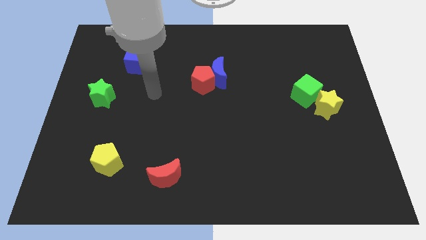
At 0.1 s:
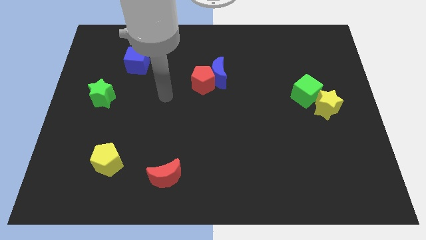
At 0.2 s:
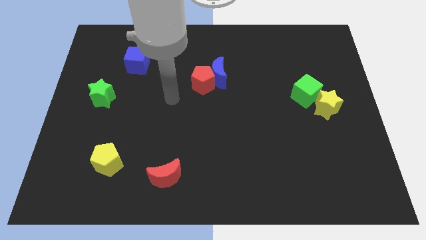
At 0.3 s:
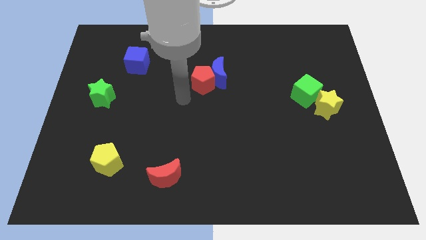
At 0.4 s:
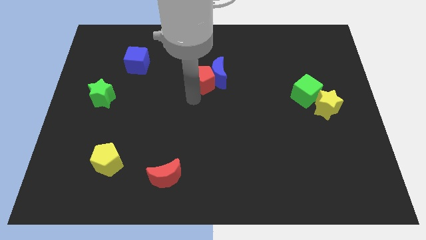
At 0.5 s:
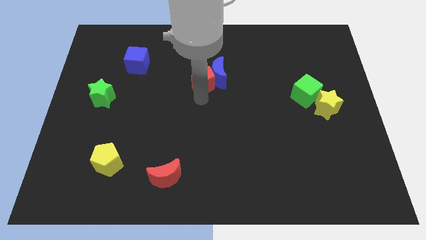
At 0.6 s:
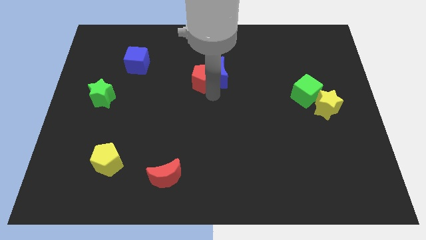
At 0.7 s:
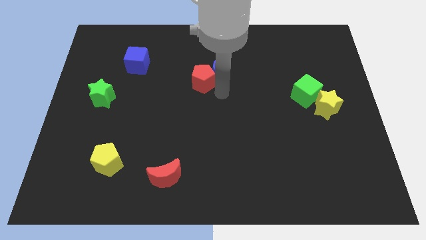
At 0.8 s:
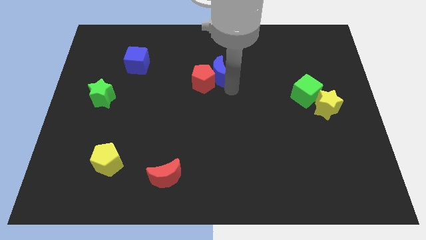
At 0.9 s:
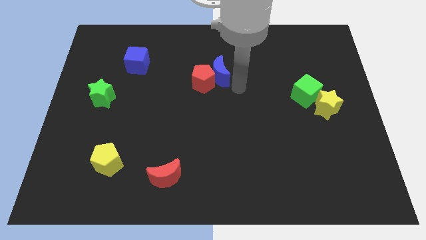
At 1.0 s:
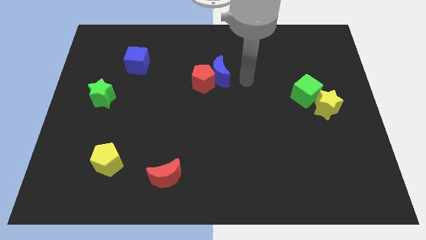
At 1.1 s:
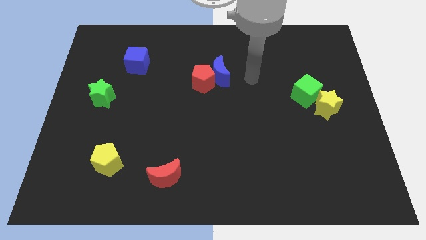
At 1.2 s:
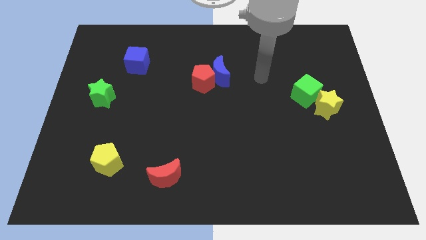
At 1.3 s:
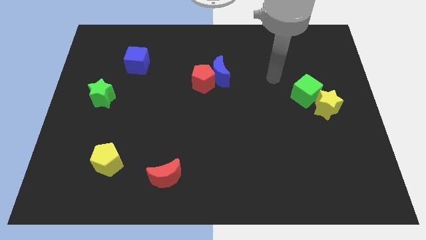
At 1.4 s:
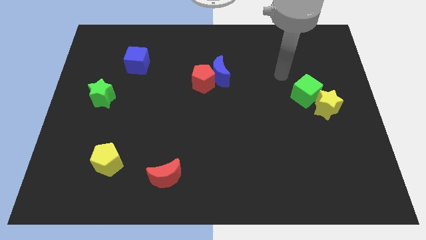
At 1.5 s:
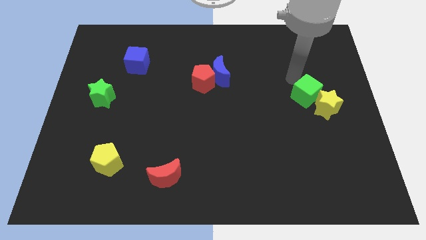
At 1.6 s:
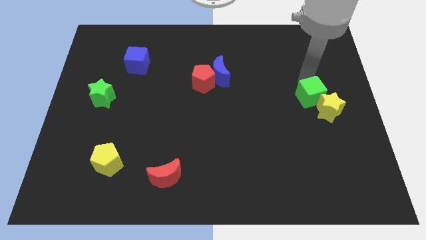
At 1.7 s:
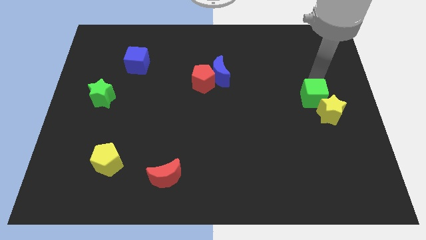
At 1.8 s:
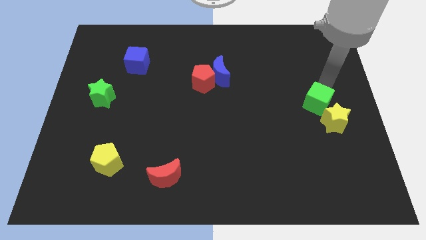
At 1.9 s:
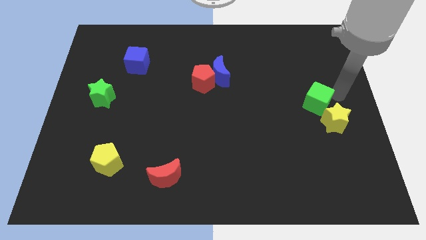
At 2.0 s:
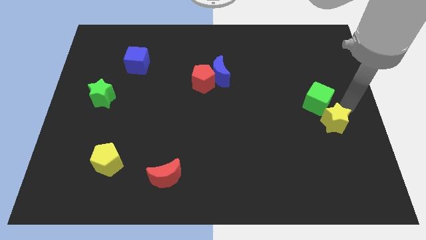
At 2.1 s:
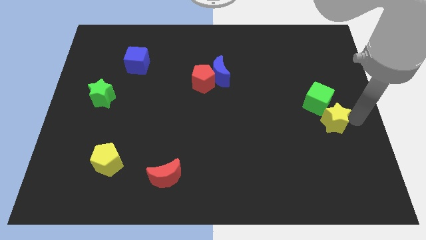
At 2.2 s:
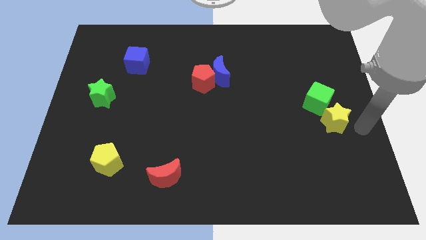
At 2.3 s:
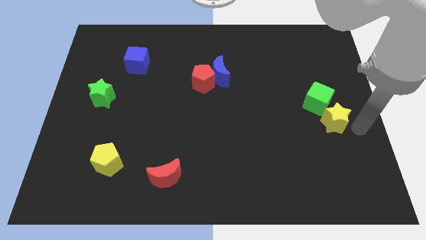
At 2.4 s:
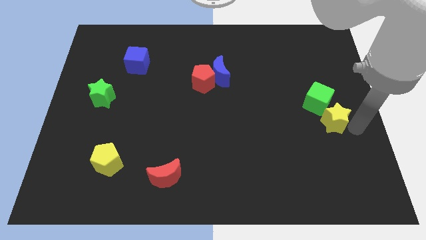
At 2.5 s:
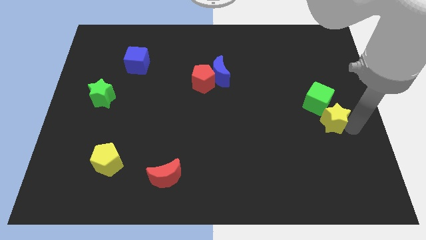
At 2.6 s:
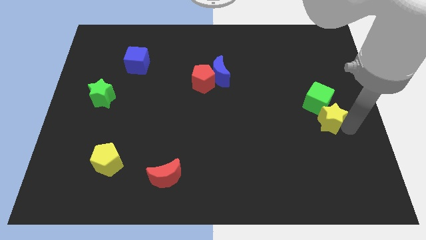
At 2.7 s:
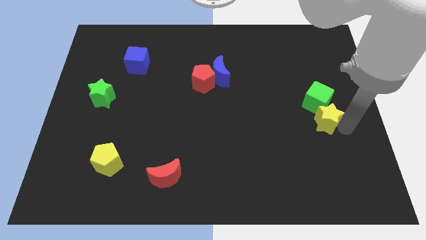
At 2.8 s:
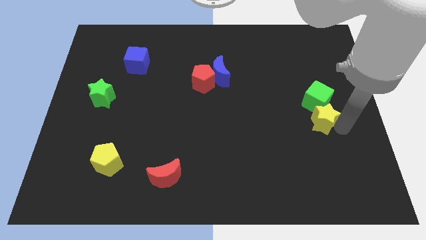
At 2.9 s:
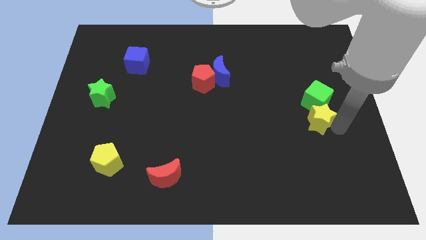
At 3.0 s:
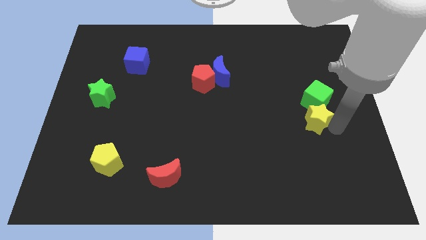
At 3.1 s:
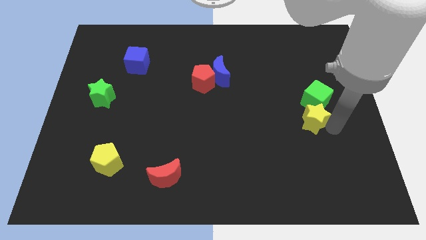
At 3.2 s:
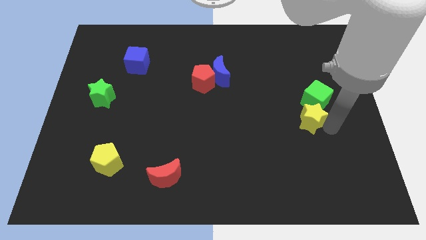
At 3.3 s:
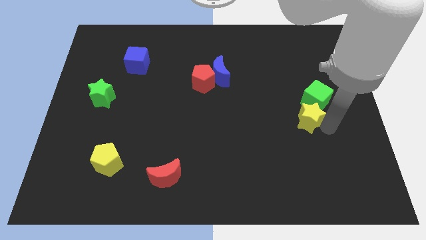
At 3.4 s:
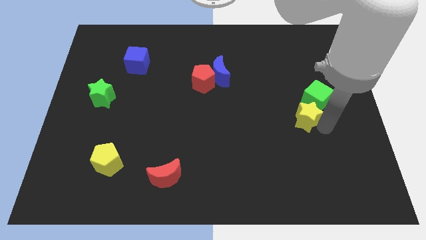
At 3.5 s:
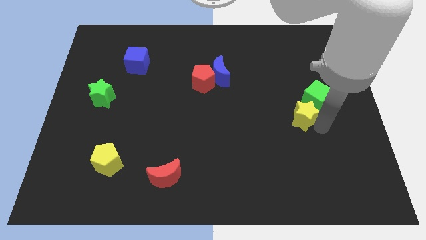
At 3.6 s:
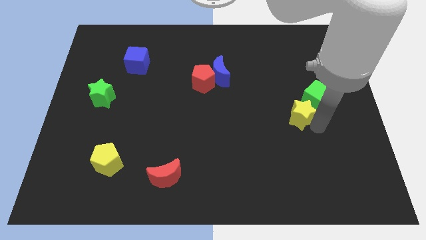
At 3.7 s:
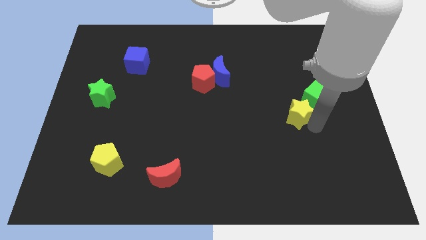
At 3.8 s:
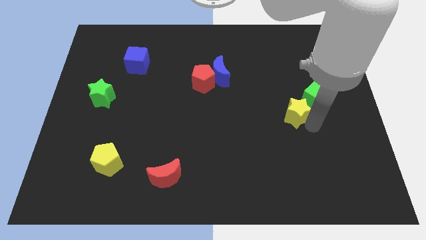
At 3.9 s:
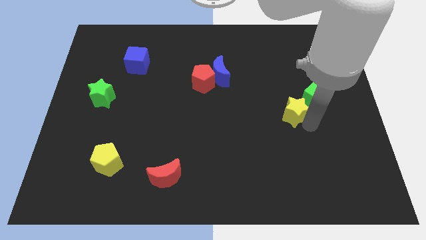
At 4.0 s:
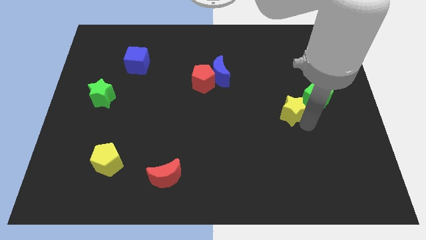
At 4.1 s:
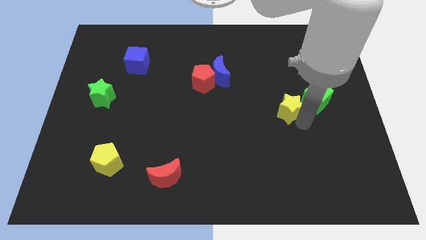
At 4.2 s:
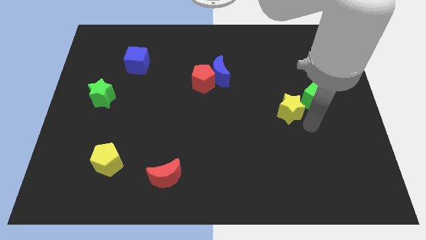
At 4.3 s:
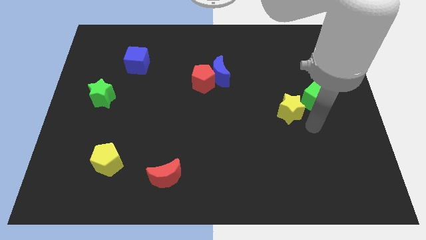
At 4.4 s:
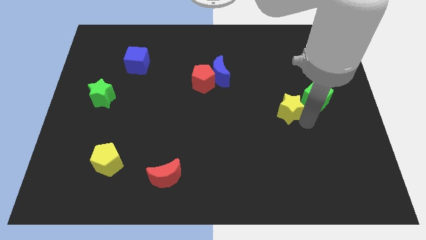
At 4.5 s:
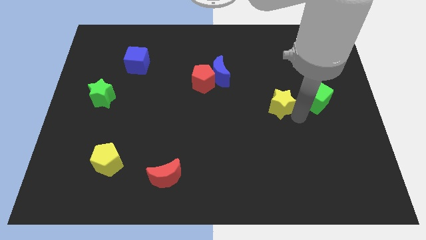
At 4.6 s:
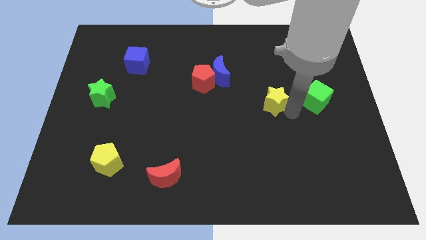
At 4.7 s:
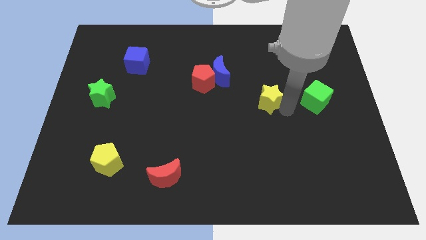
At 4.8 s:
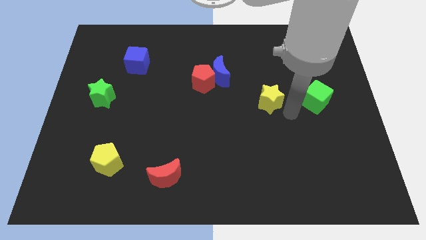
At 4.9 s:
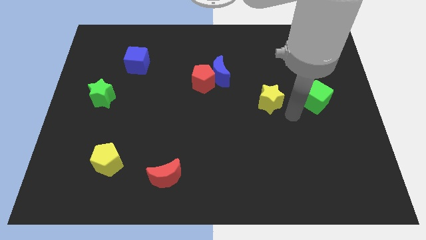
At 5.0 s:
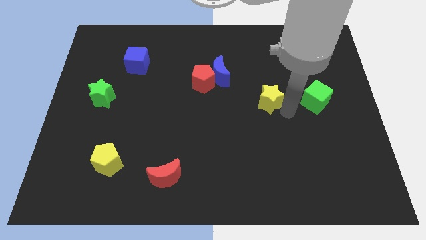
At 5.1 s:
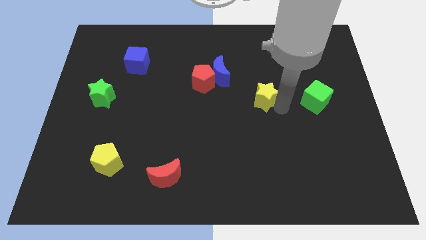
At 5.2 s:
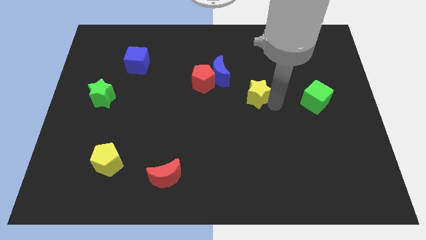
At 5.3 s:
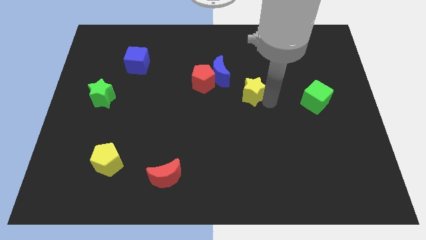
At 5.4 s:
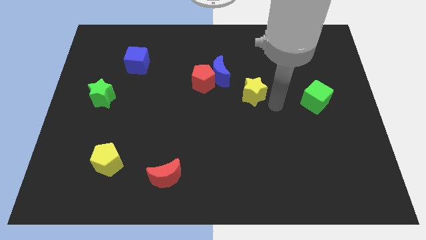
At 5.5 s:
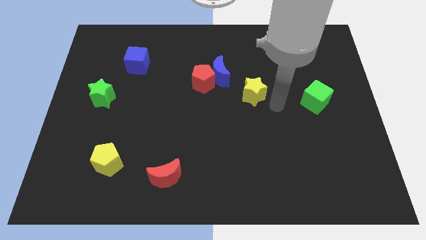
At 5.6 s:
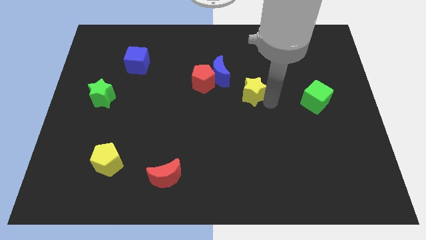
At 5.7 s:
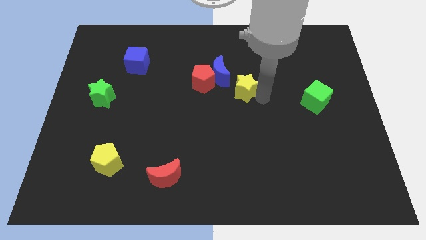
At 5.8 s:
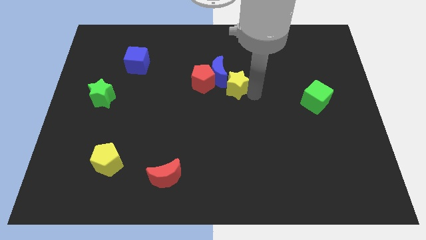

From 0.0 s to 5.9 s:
slide the yellow star close to the blue moon

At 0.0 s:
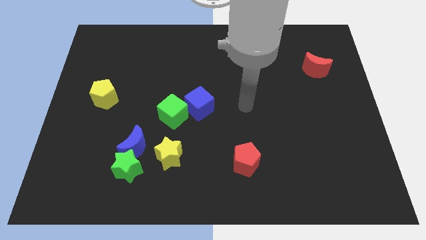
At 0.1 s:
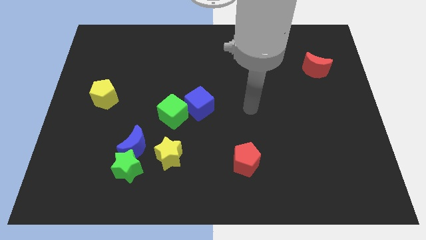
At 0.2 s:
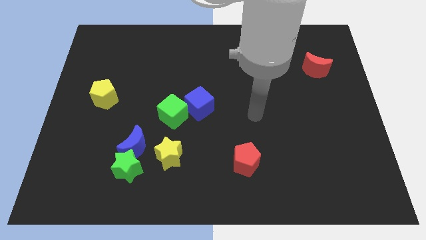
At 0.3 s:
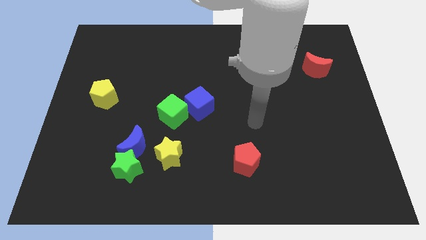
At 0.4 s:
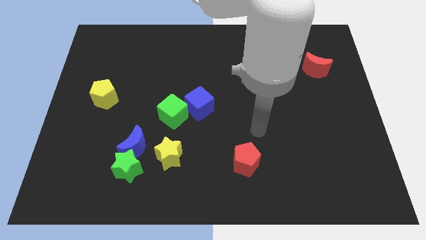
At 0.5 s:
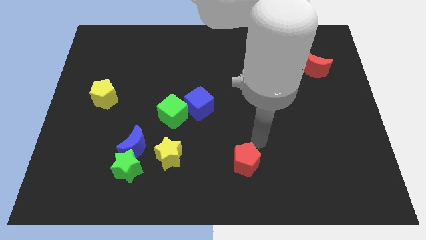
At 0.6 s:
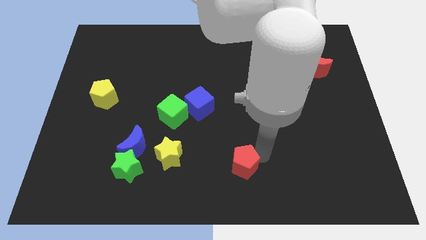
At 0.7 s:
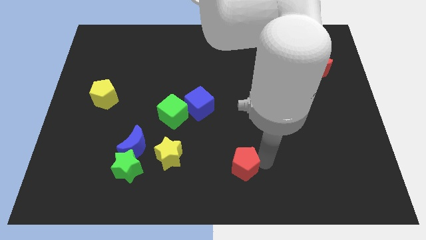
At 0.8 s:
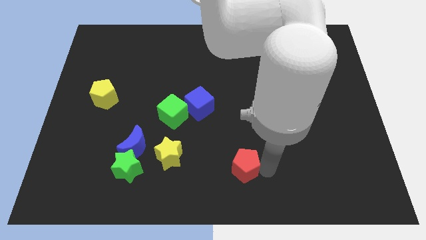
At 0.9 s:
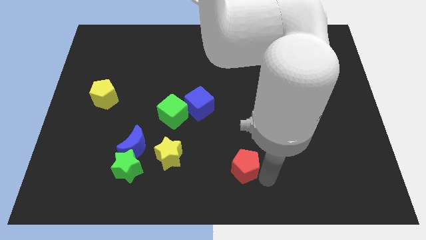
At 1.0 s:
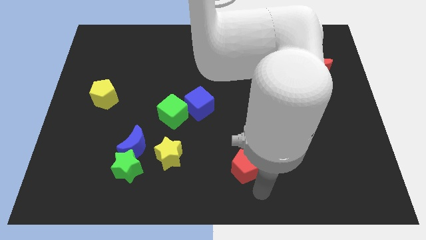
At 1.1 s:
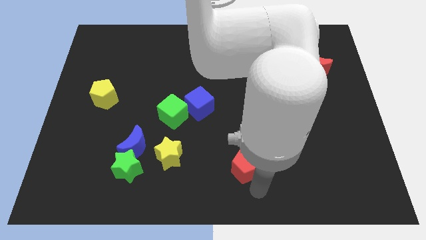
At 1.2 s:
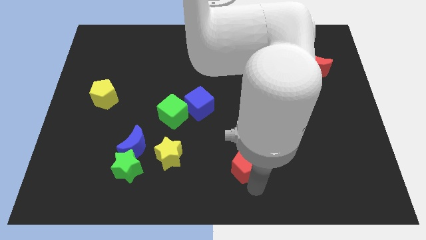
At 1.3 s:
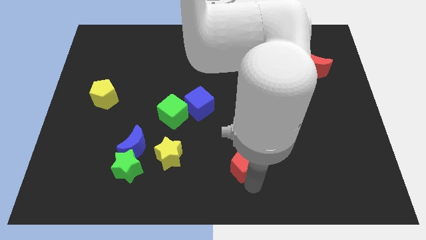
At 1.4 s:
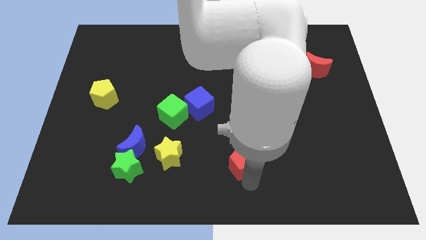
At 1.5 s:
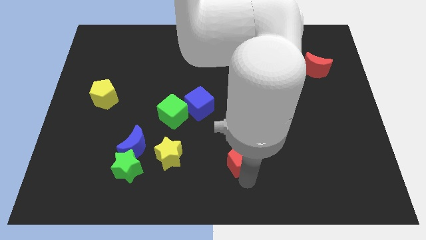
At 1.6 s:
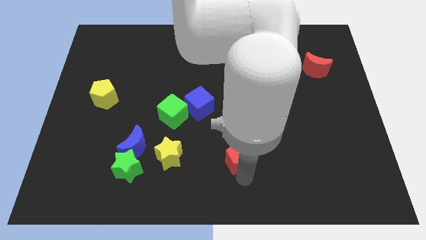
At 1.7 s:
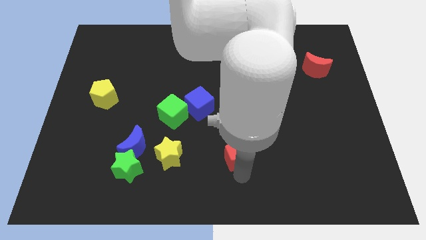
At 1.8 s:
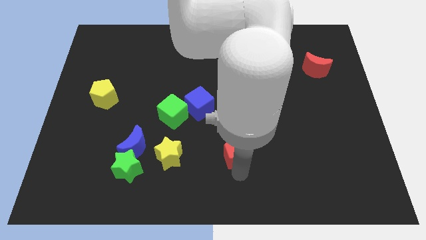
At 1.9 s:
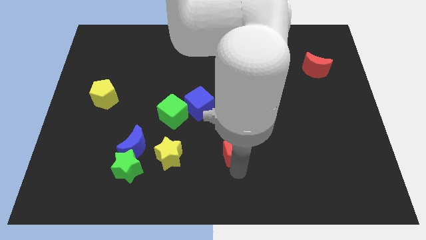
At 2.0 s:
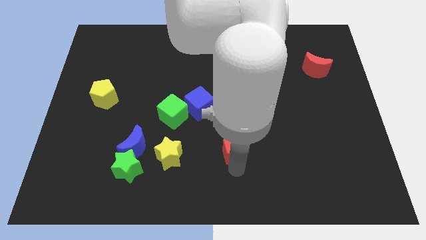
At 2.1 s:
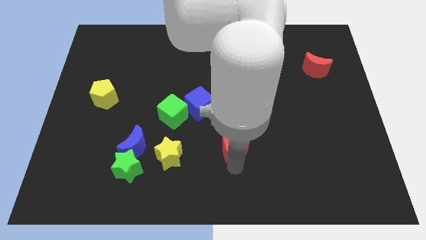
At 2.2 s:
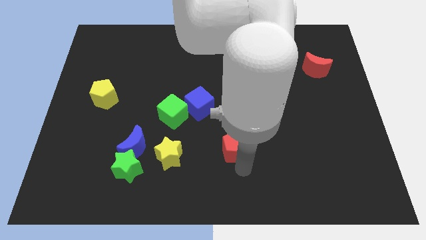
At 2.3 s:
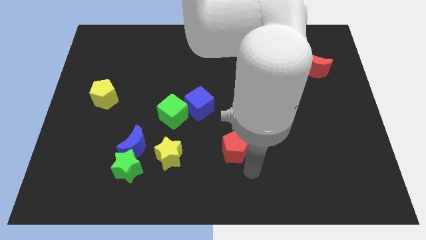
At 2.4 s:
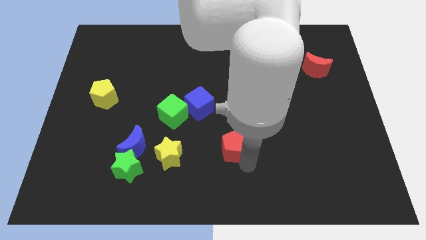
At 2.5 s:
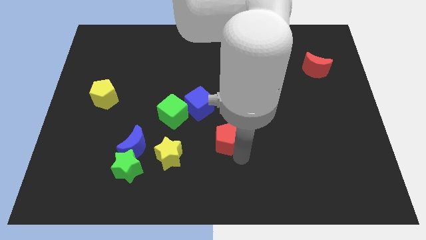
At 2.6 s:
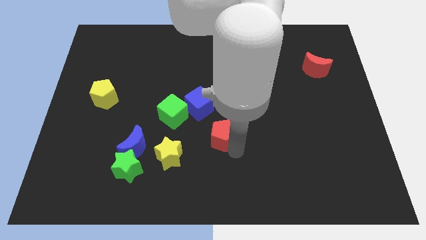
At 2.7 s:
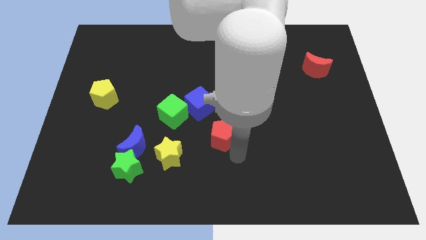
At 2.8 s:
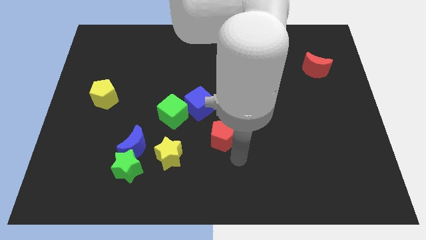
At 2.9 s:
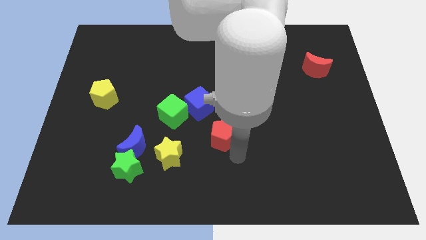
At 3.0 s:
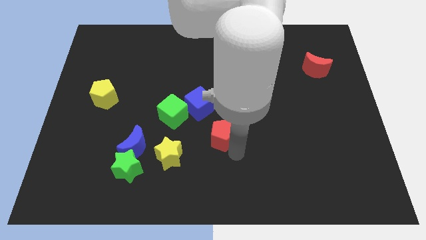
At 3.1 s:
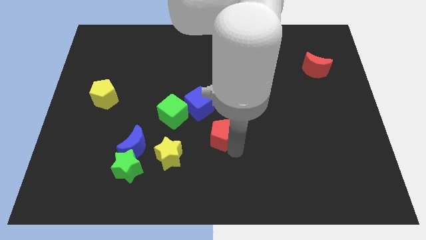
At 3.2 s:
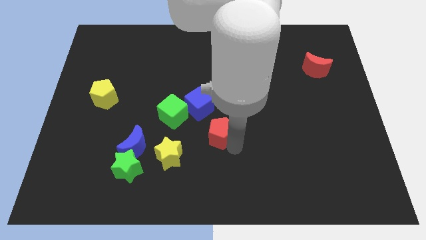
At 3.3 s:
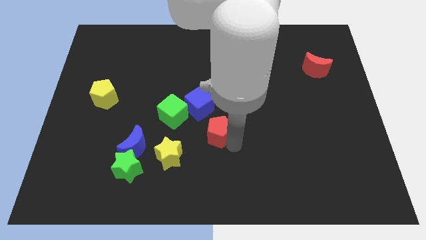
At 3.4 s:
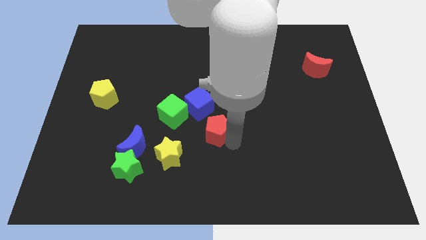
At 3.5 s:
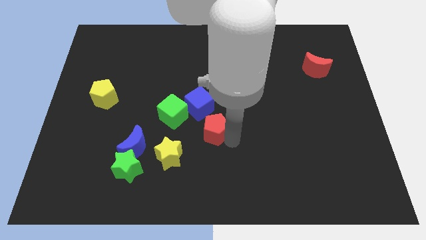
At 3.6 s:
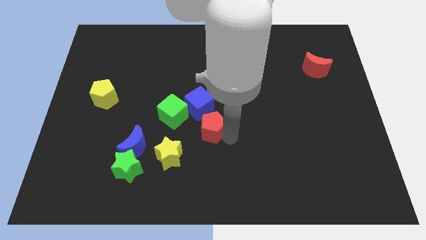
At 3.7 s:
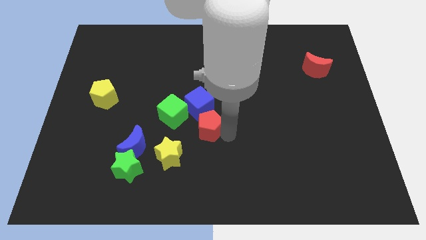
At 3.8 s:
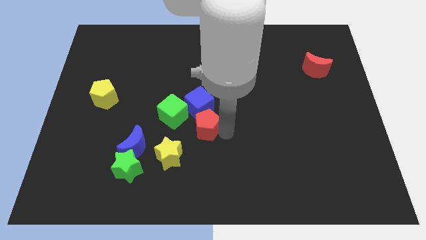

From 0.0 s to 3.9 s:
push the red pentagon close to the blue cube
